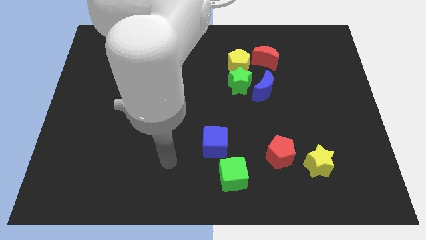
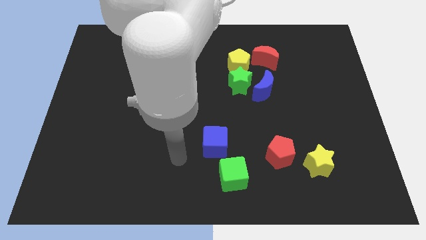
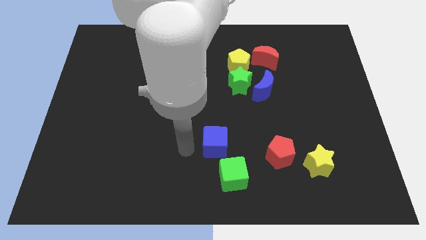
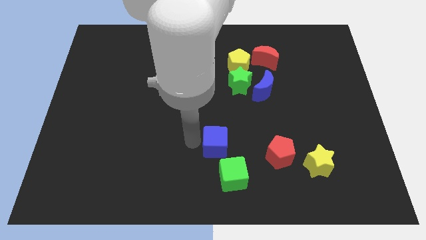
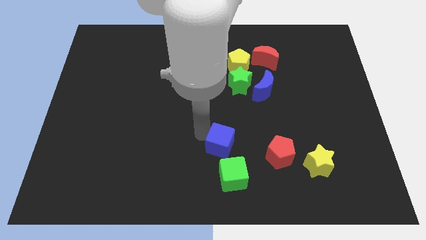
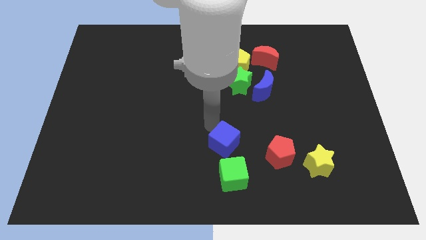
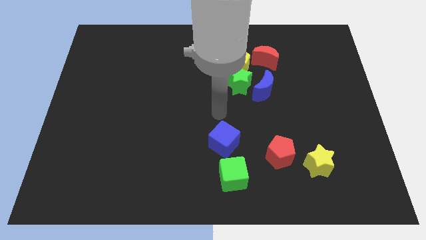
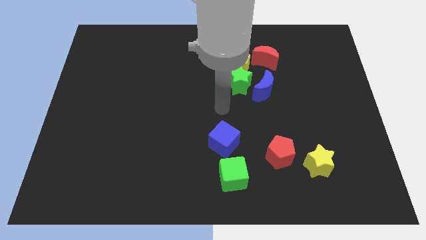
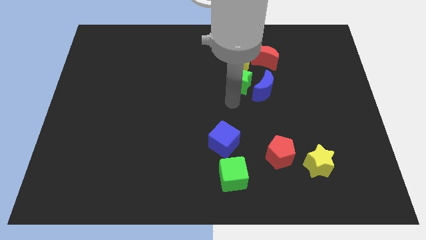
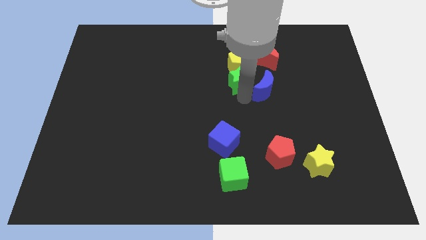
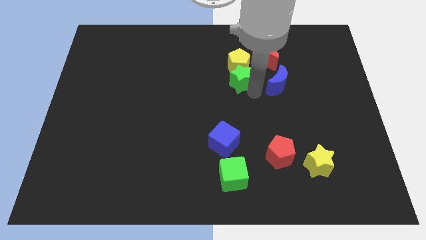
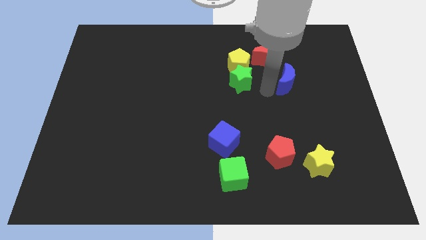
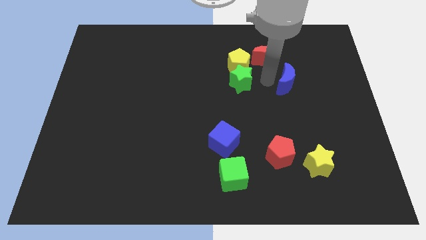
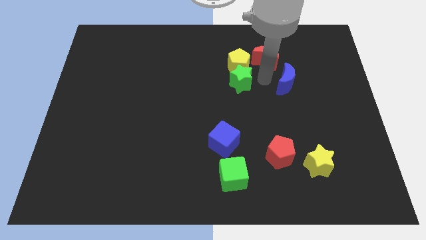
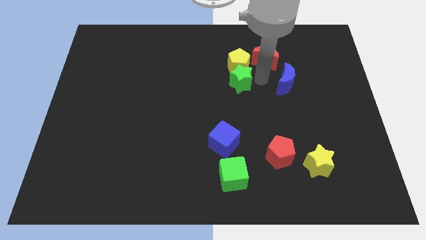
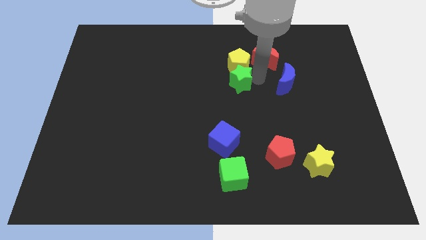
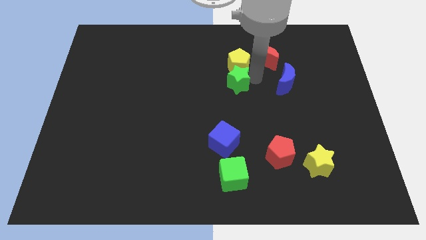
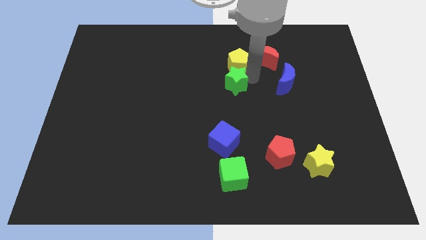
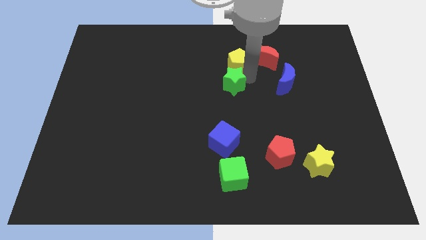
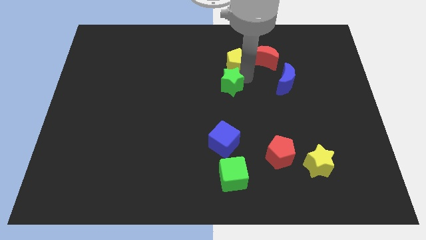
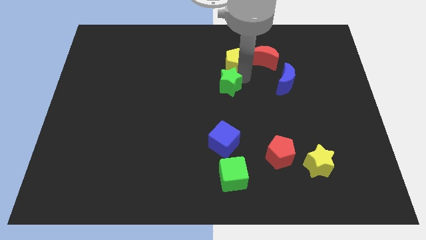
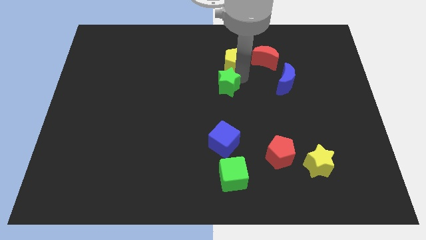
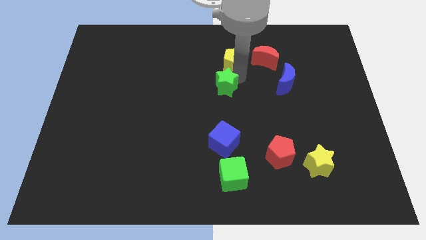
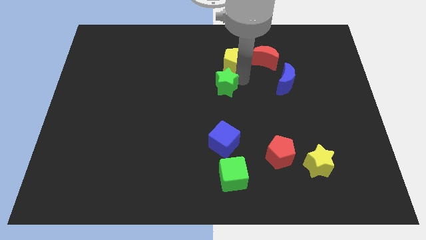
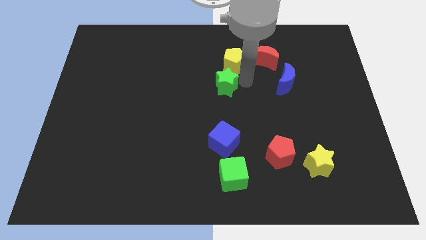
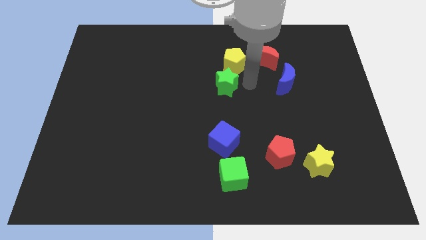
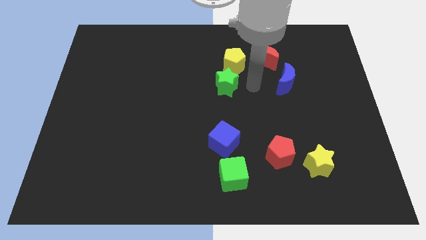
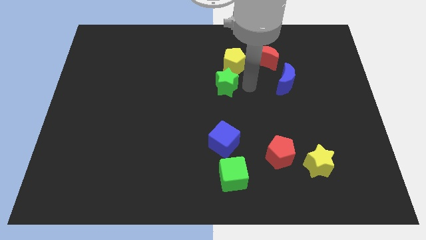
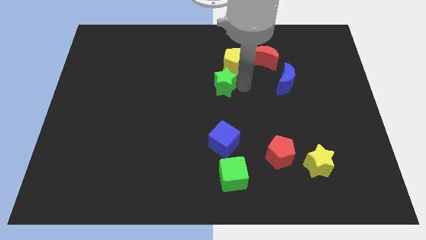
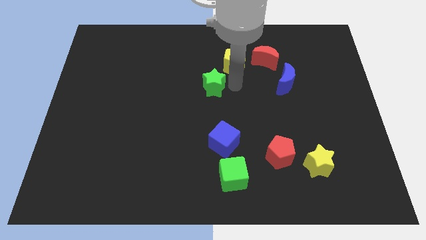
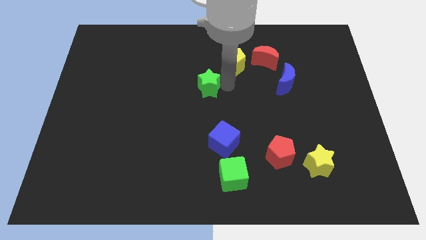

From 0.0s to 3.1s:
slide the green star slightly left

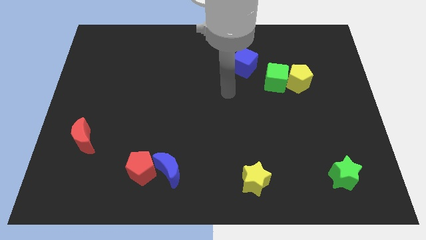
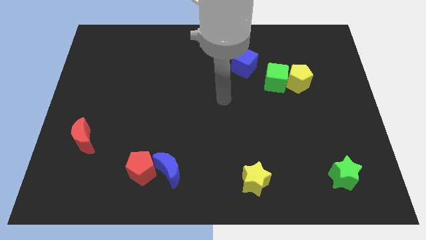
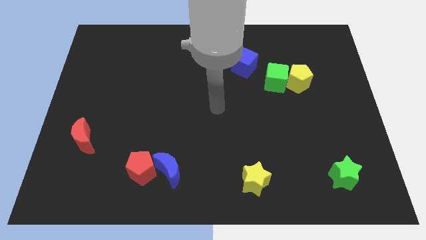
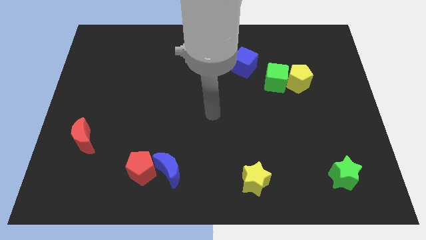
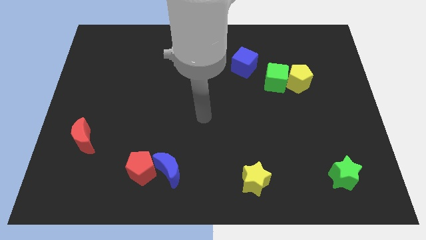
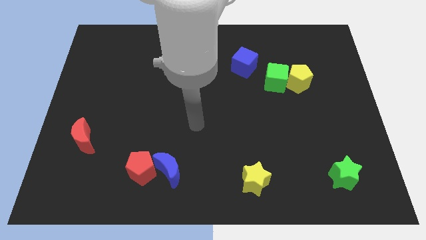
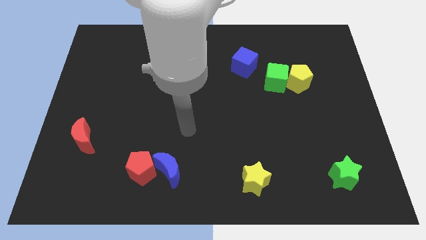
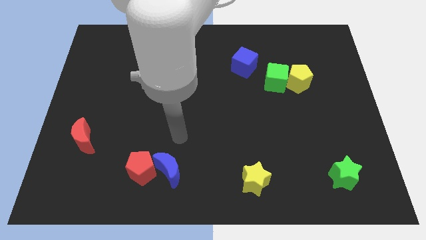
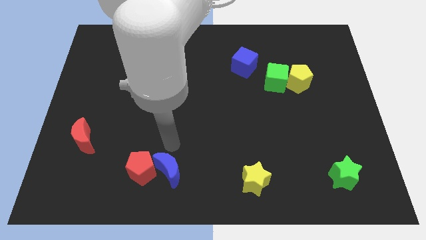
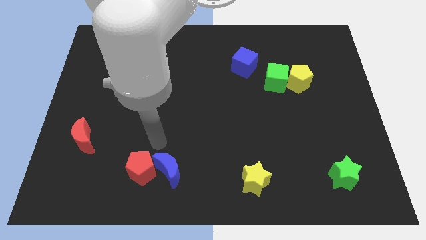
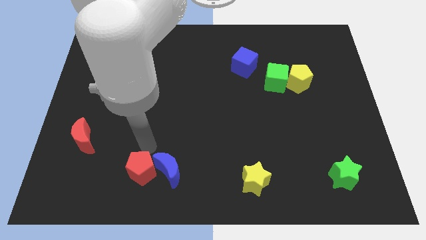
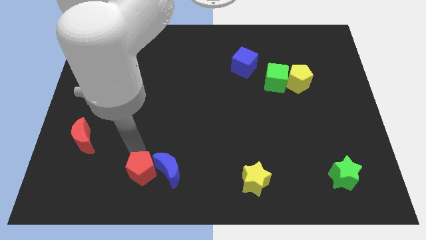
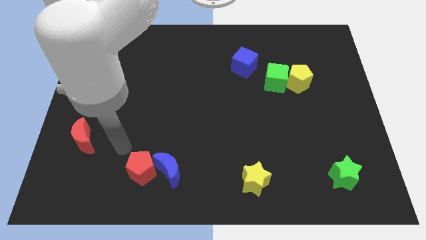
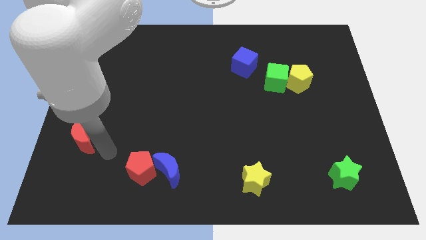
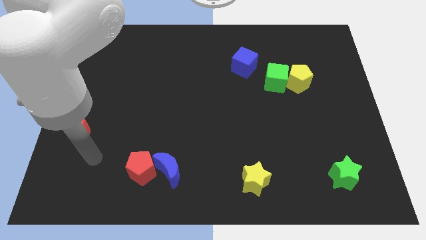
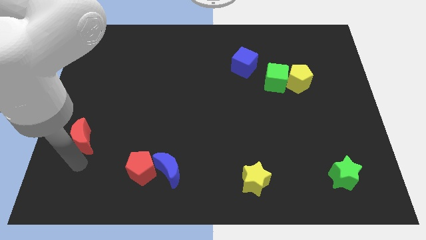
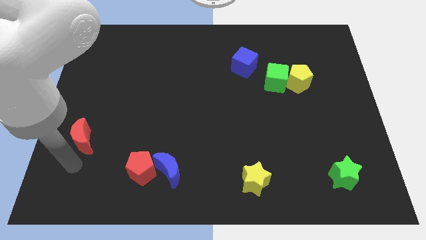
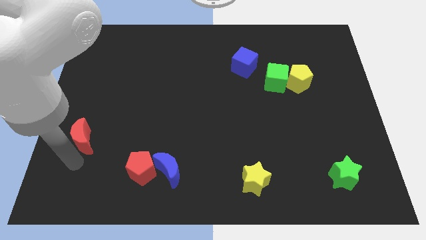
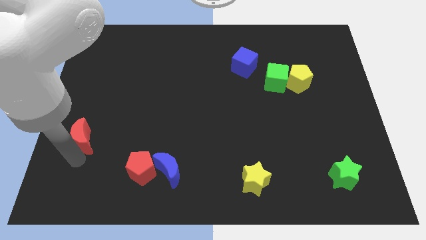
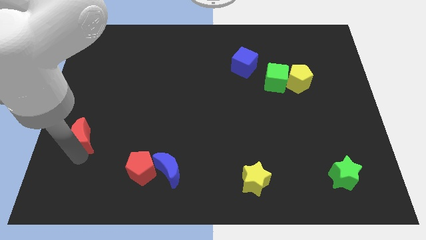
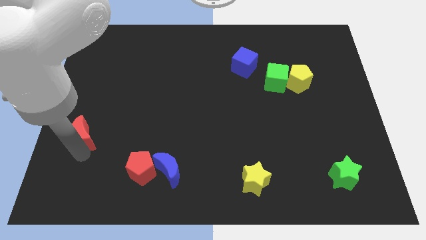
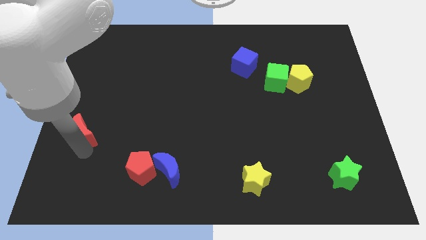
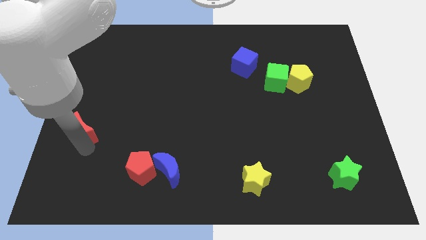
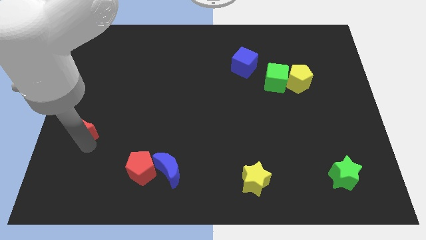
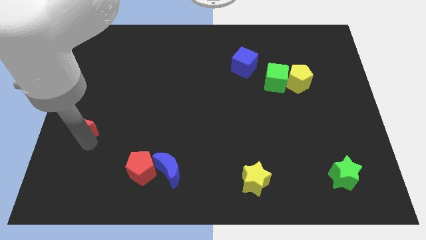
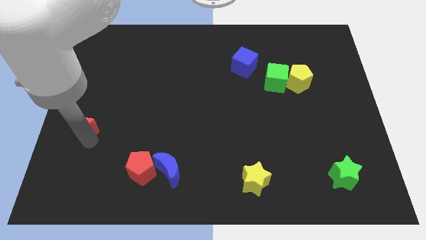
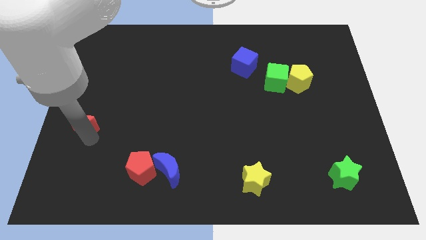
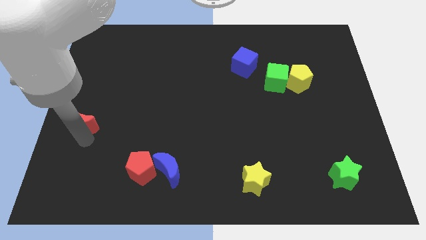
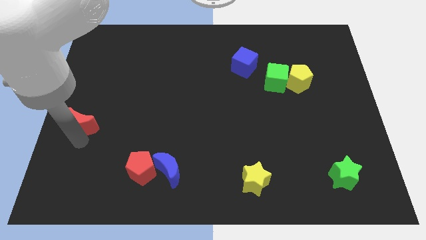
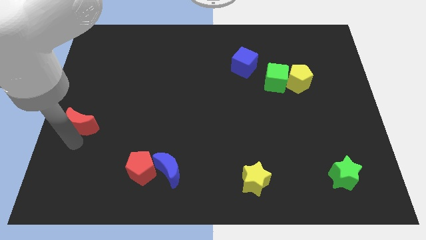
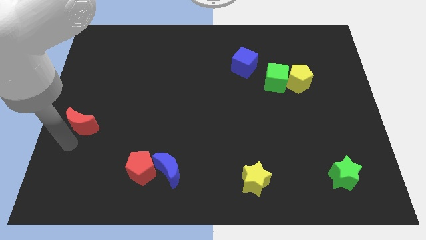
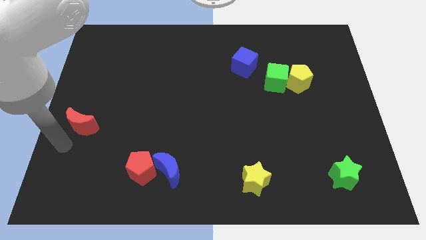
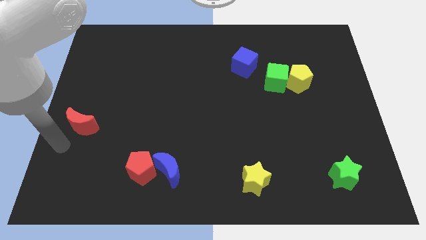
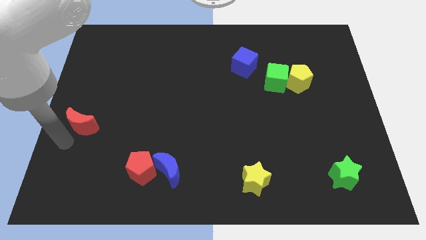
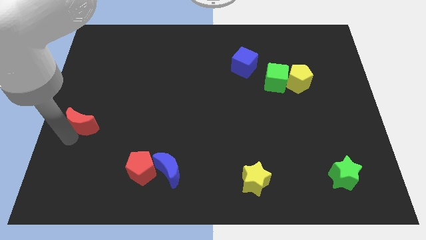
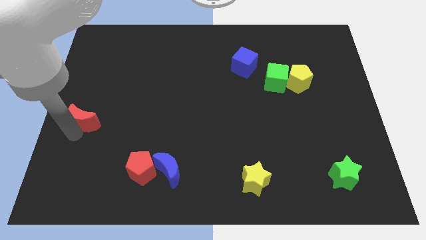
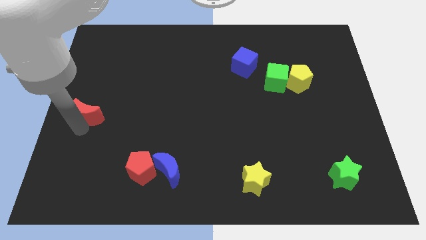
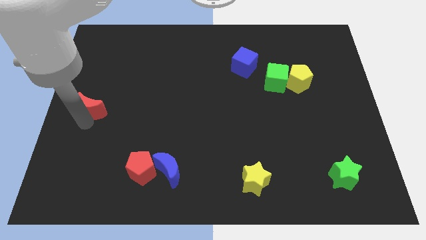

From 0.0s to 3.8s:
slightly push the red moon up

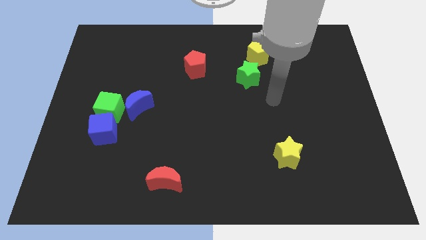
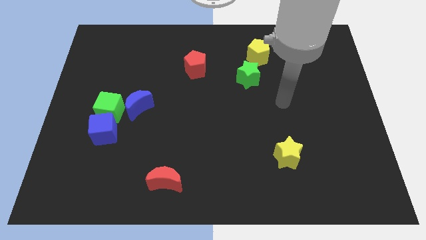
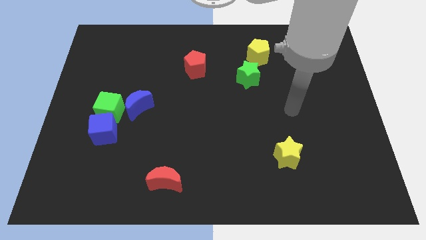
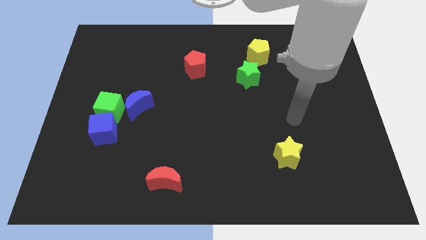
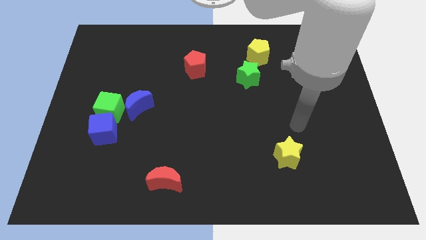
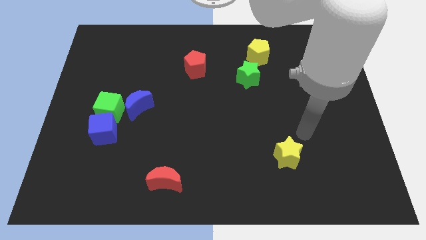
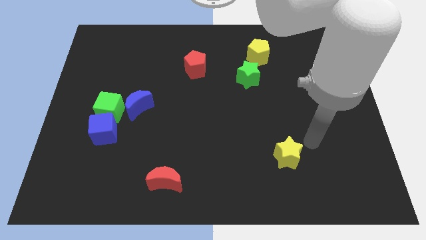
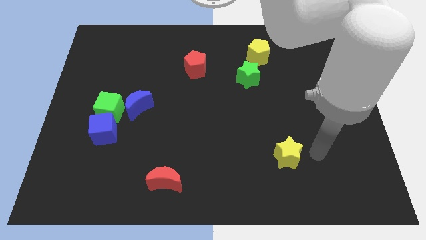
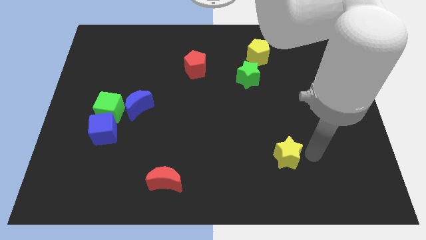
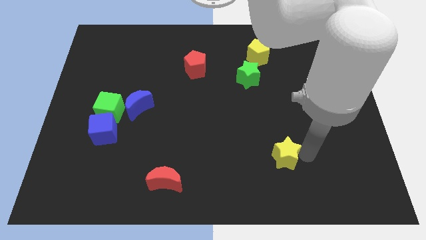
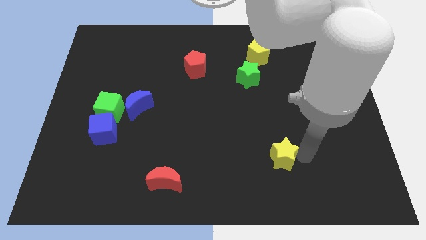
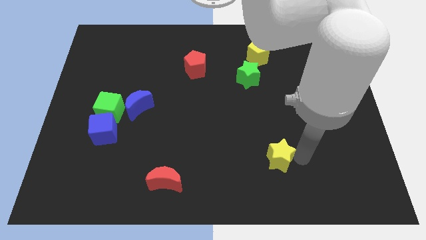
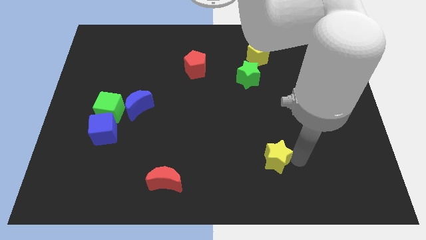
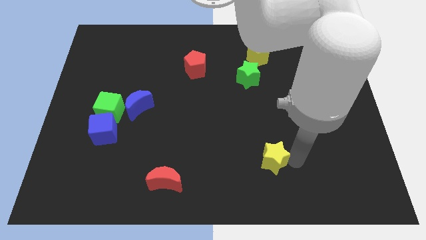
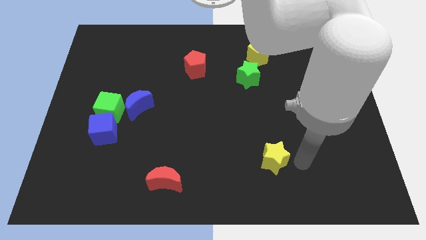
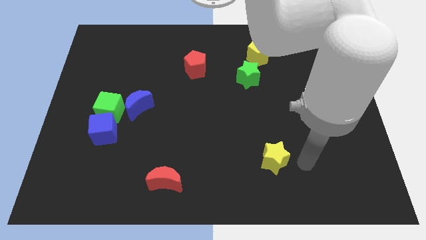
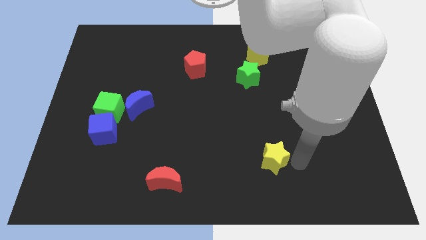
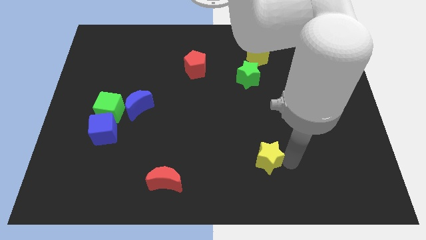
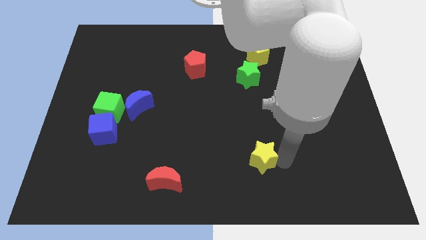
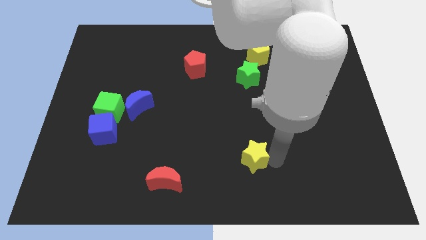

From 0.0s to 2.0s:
slide the yellow star to the left a bit
